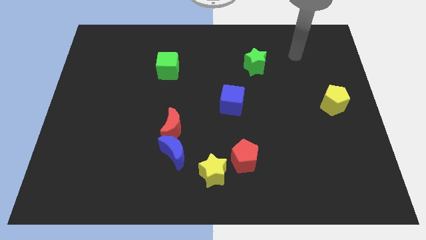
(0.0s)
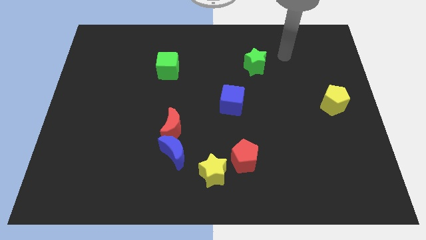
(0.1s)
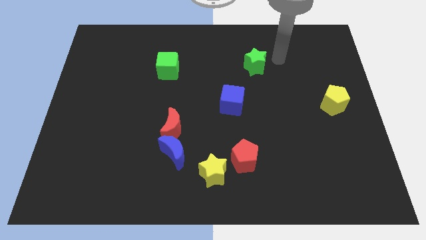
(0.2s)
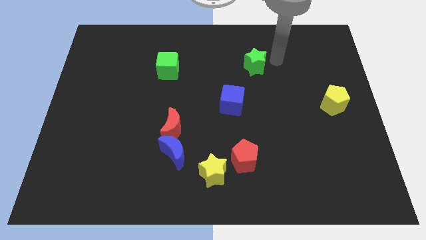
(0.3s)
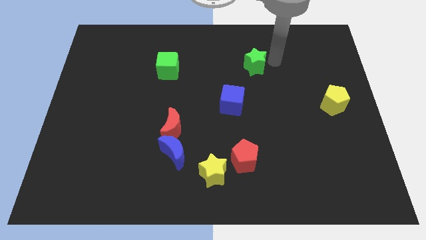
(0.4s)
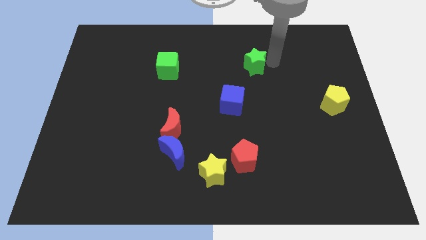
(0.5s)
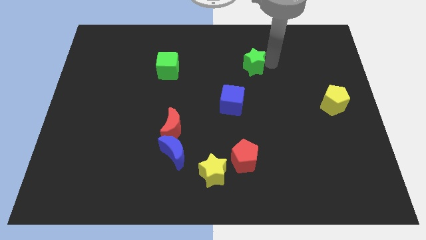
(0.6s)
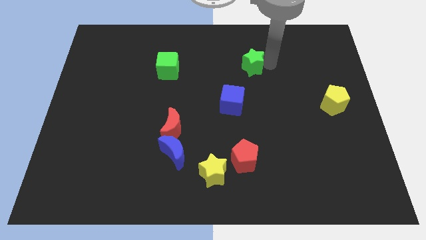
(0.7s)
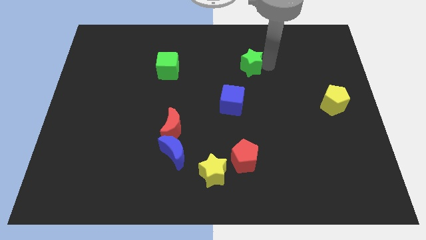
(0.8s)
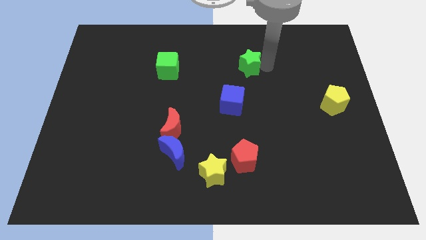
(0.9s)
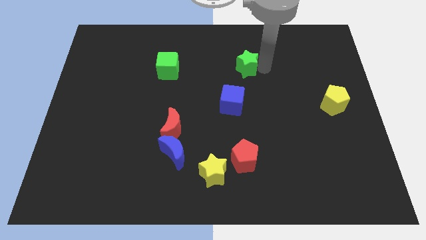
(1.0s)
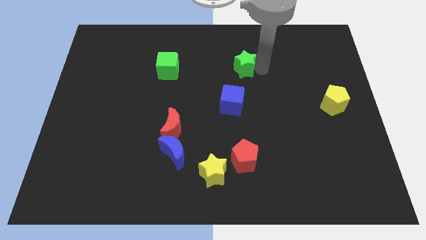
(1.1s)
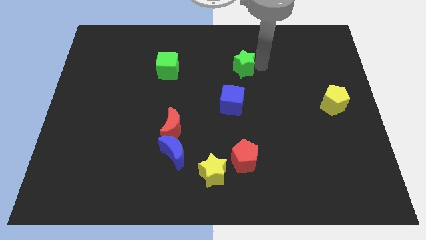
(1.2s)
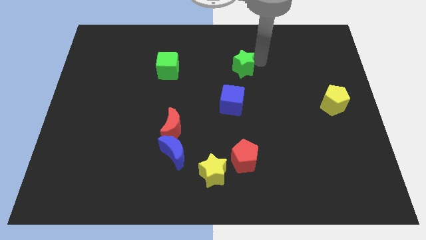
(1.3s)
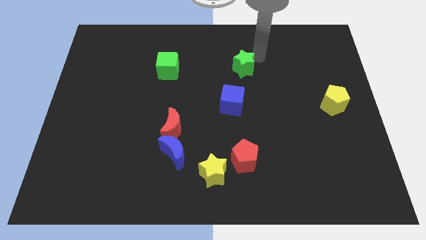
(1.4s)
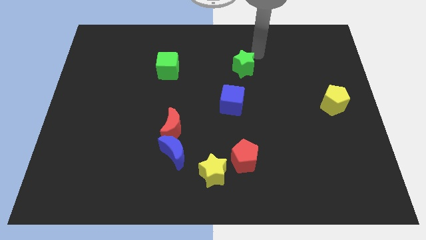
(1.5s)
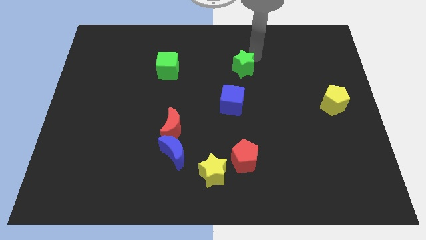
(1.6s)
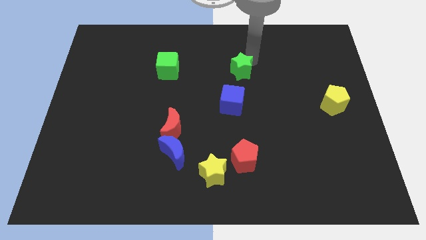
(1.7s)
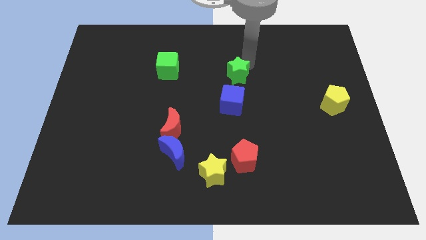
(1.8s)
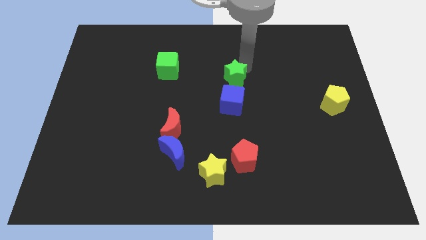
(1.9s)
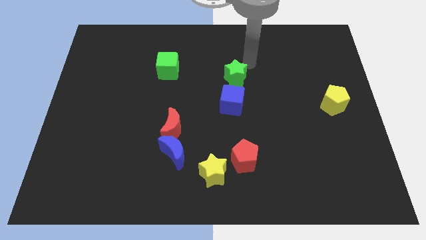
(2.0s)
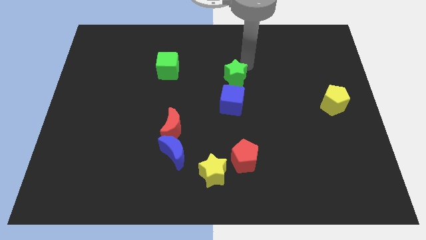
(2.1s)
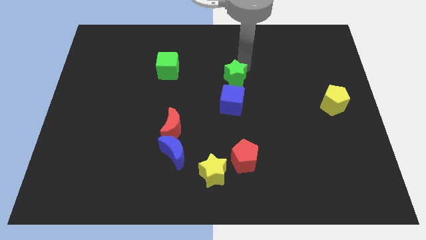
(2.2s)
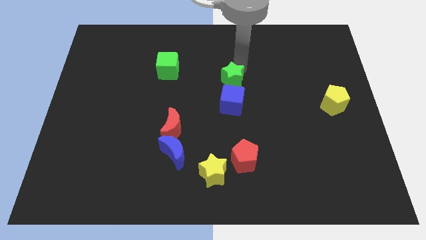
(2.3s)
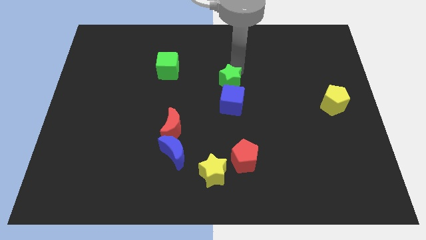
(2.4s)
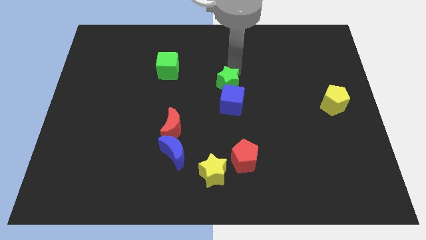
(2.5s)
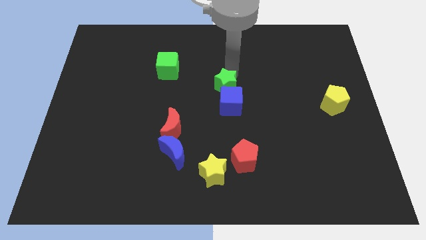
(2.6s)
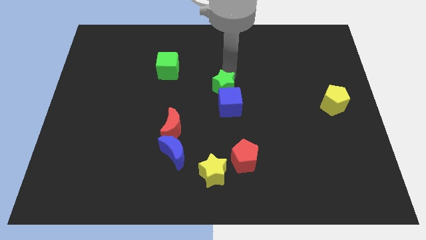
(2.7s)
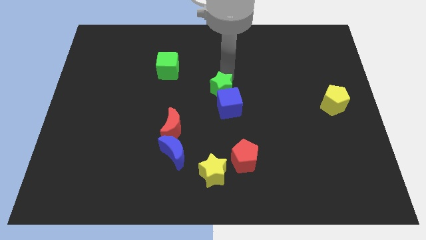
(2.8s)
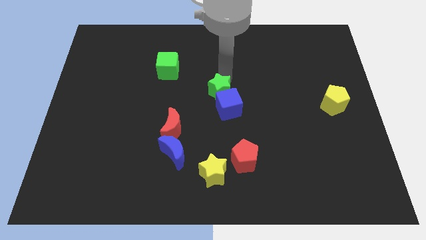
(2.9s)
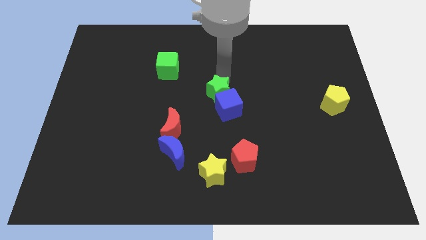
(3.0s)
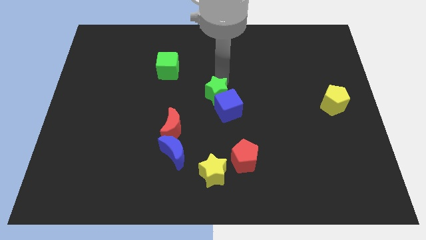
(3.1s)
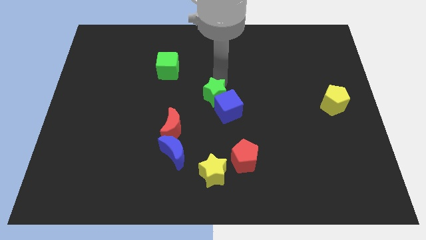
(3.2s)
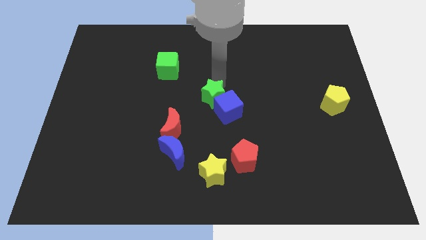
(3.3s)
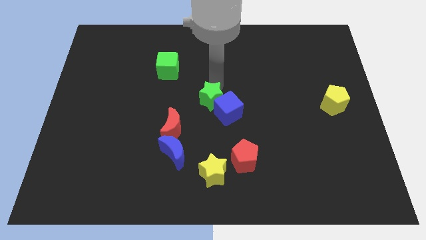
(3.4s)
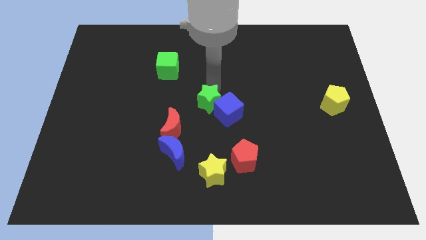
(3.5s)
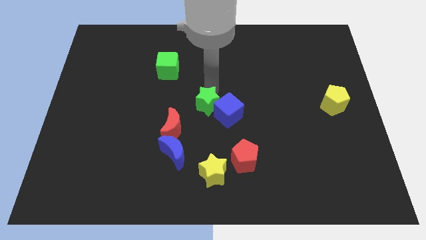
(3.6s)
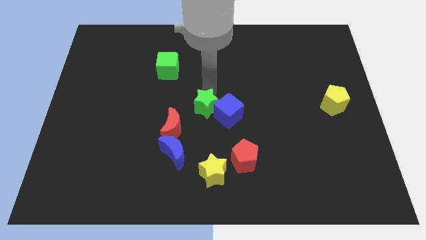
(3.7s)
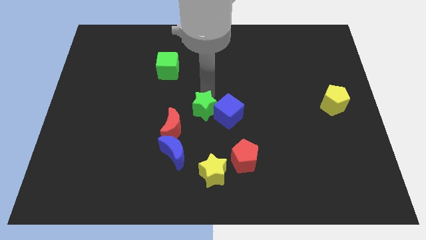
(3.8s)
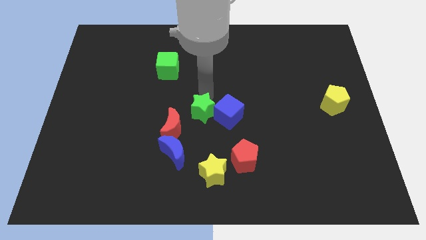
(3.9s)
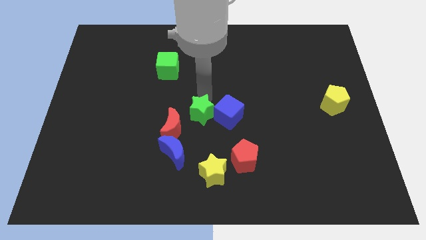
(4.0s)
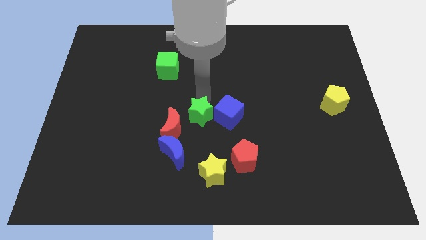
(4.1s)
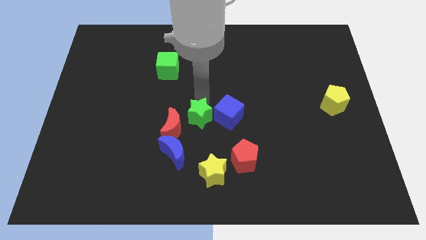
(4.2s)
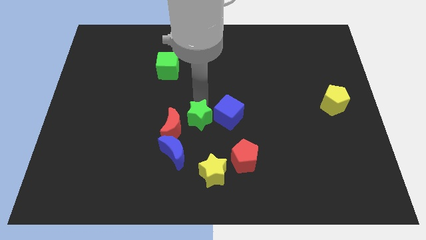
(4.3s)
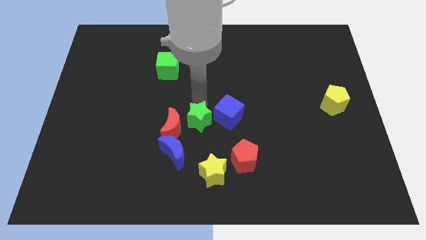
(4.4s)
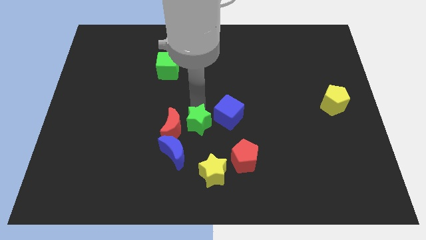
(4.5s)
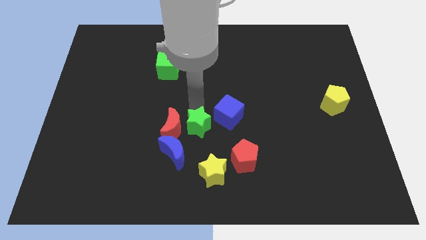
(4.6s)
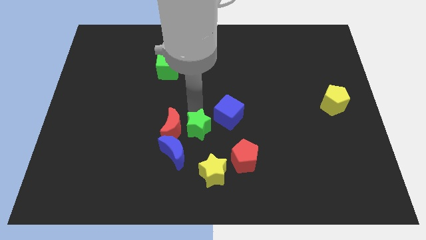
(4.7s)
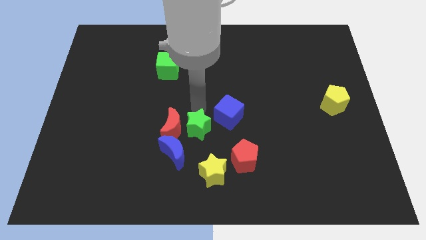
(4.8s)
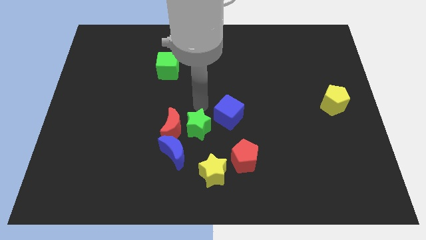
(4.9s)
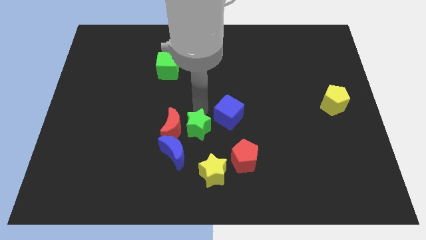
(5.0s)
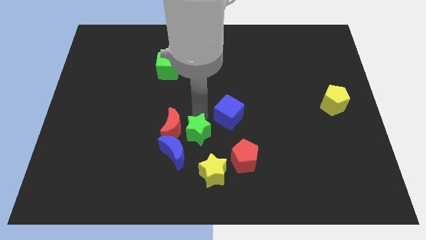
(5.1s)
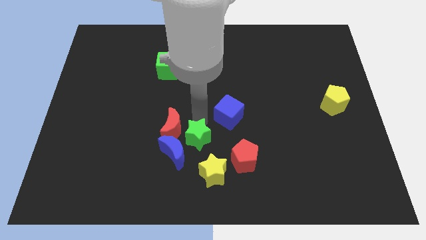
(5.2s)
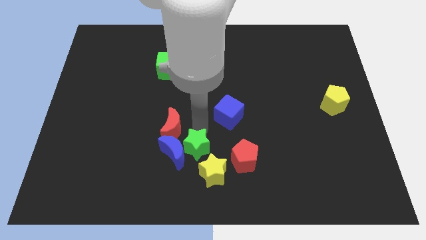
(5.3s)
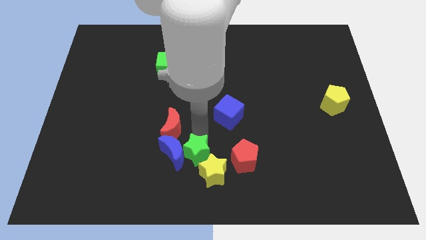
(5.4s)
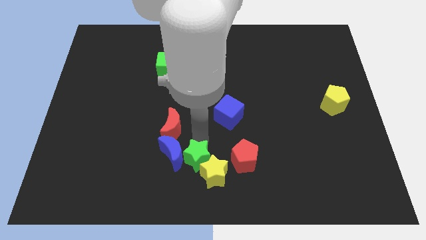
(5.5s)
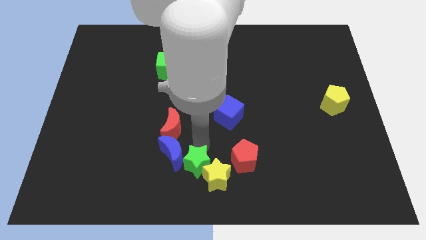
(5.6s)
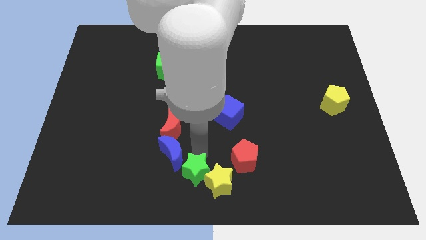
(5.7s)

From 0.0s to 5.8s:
move the green star to the bottom left of the red pentagon

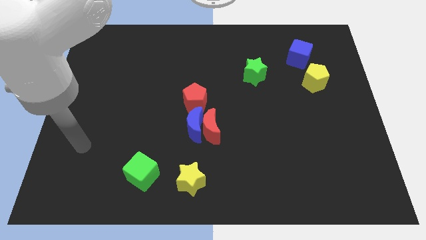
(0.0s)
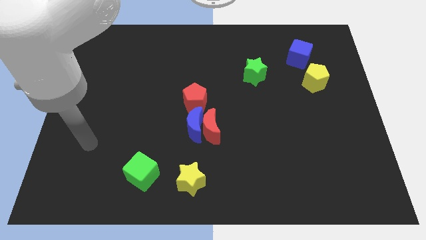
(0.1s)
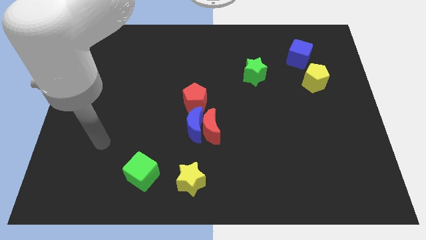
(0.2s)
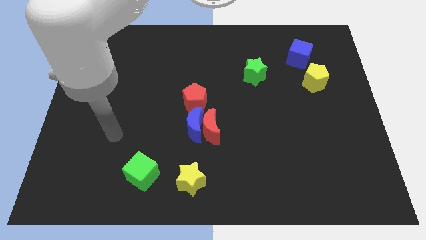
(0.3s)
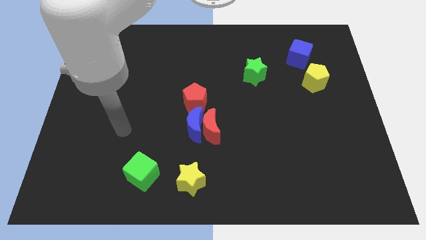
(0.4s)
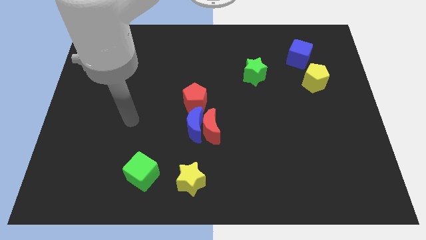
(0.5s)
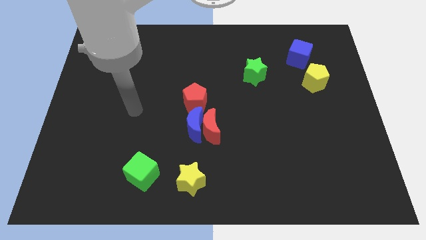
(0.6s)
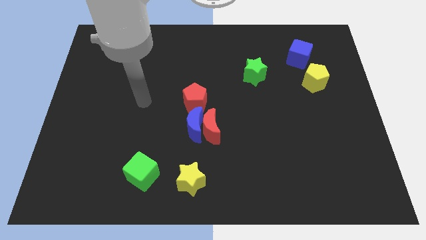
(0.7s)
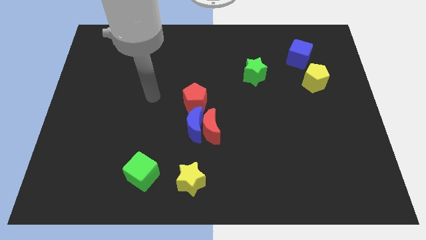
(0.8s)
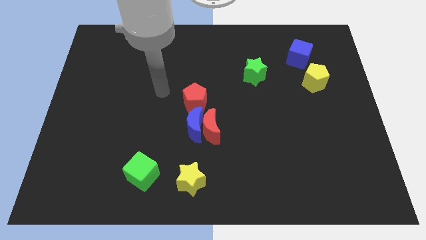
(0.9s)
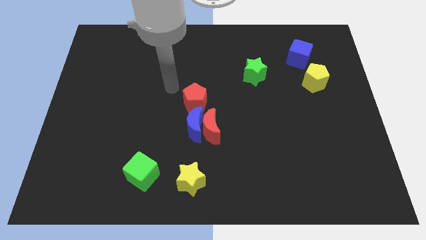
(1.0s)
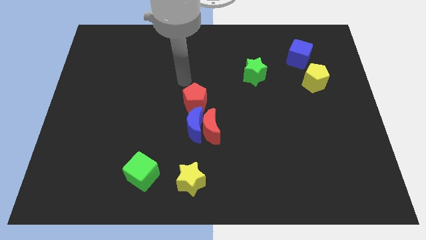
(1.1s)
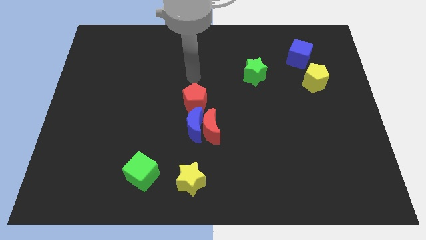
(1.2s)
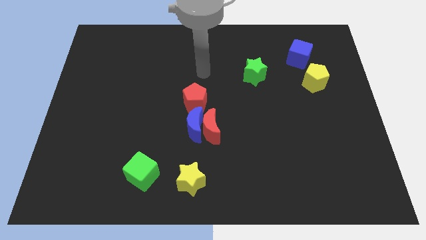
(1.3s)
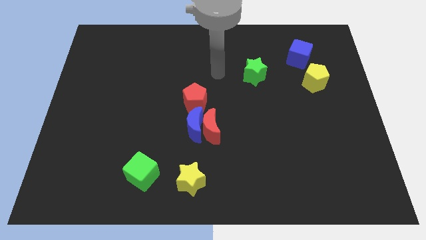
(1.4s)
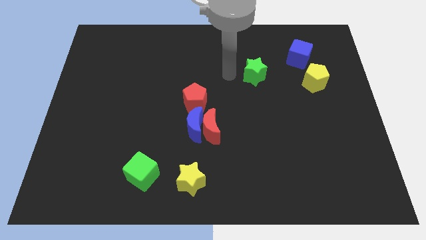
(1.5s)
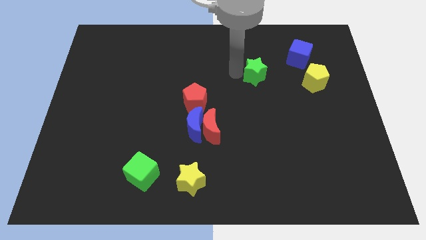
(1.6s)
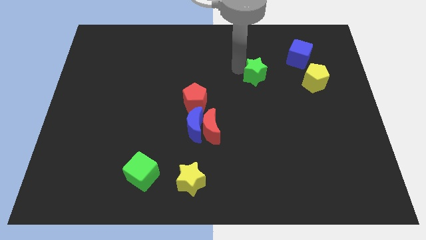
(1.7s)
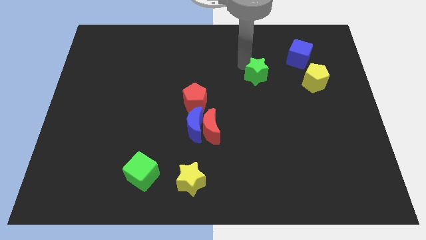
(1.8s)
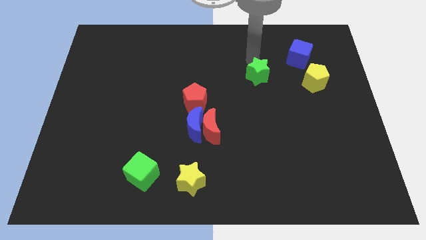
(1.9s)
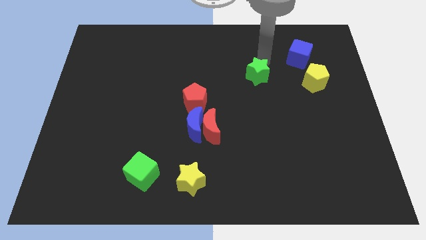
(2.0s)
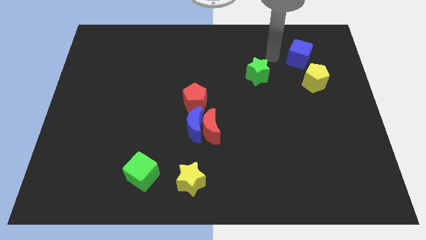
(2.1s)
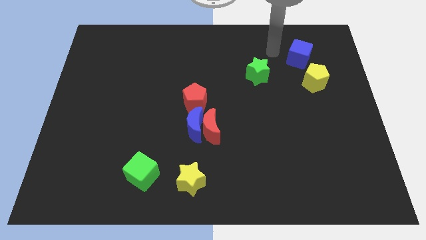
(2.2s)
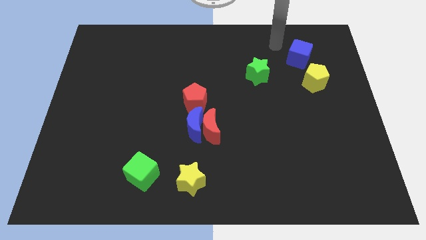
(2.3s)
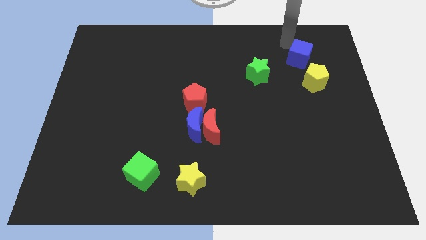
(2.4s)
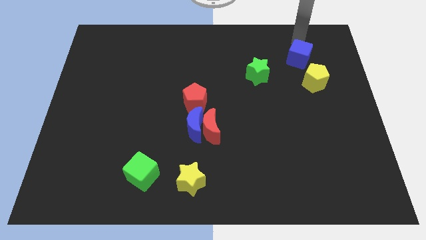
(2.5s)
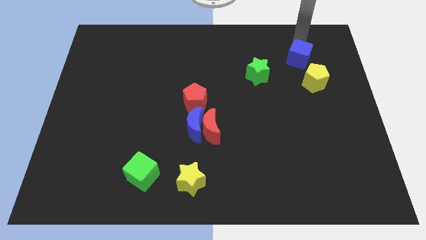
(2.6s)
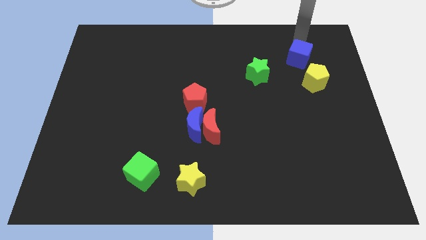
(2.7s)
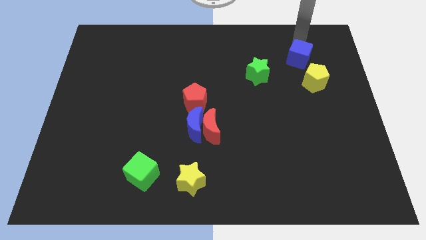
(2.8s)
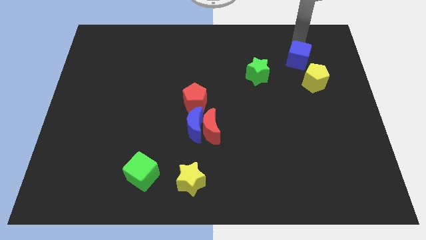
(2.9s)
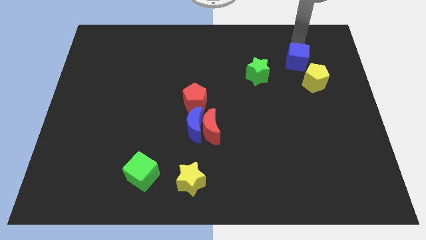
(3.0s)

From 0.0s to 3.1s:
push the blue cube just right of the green star
